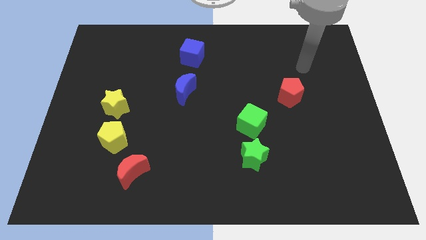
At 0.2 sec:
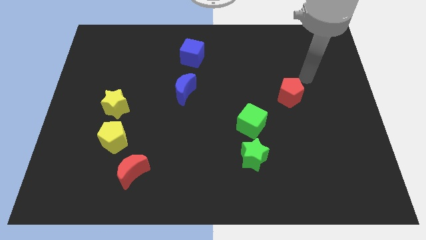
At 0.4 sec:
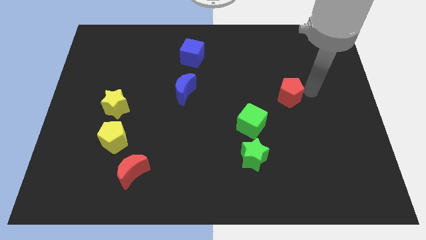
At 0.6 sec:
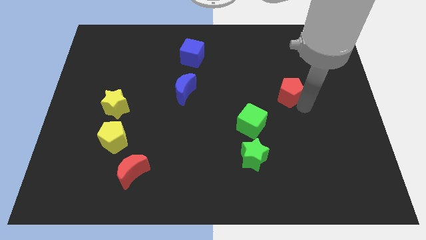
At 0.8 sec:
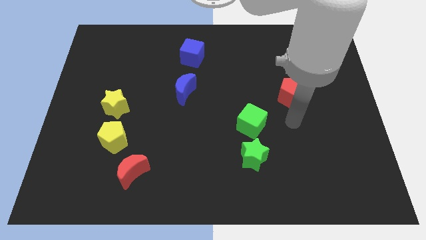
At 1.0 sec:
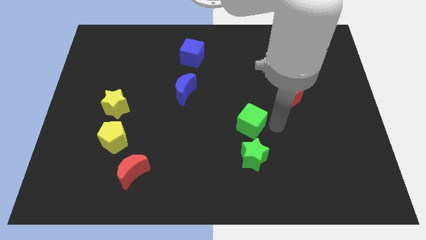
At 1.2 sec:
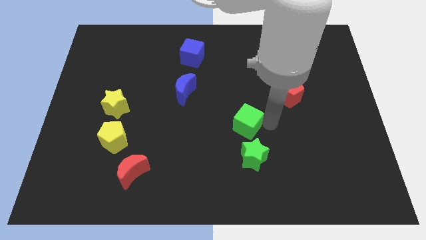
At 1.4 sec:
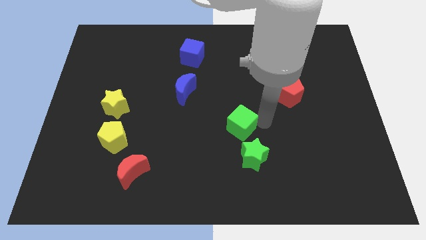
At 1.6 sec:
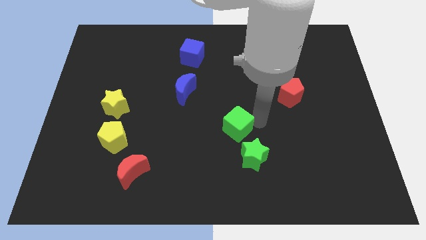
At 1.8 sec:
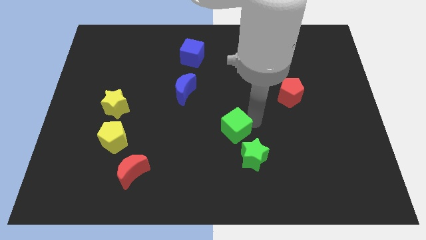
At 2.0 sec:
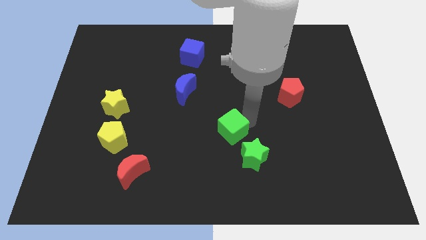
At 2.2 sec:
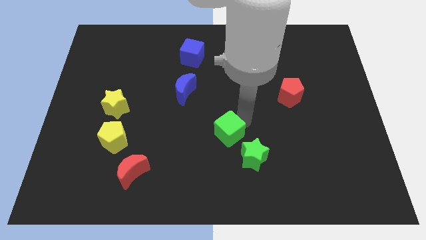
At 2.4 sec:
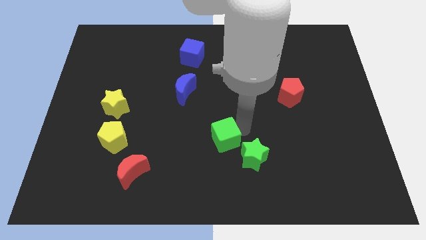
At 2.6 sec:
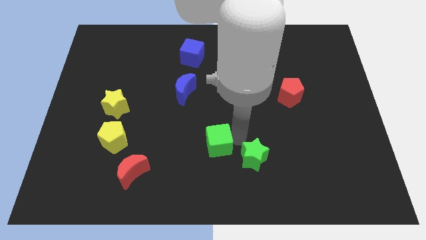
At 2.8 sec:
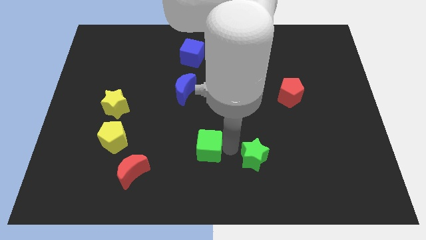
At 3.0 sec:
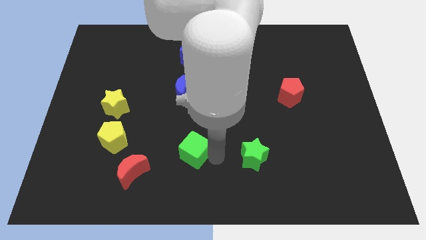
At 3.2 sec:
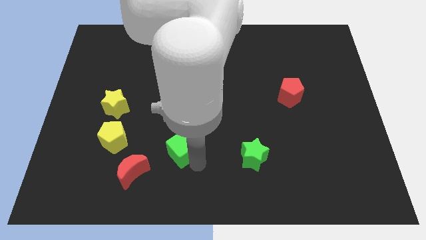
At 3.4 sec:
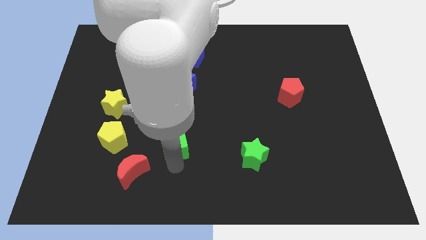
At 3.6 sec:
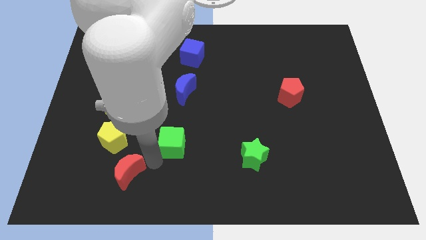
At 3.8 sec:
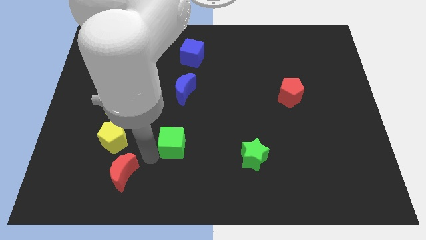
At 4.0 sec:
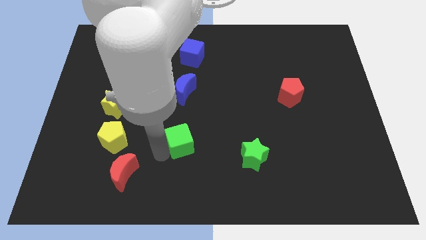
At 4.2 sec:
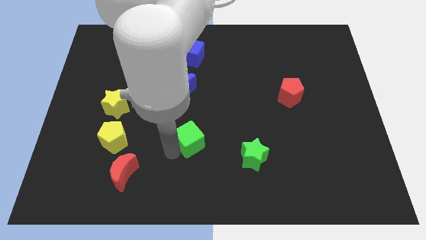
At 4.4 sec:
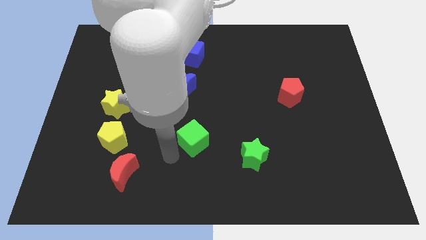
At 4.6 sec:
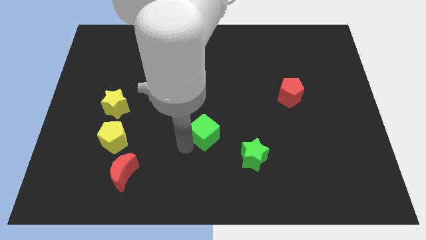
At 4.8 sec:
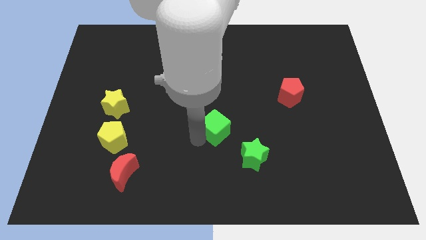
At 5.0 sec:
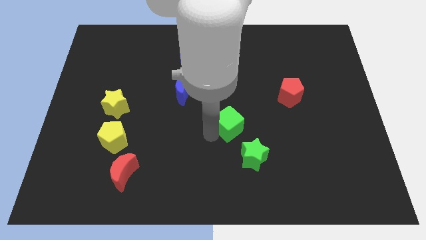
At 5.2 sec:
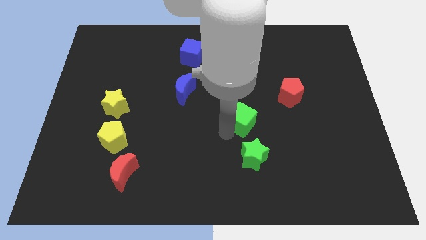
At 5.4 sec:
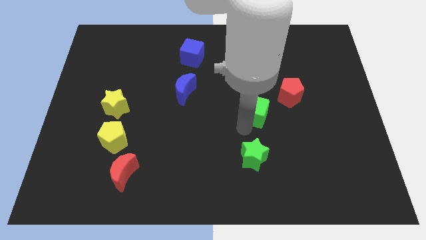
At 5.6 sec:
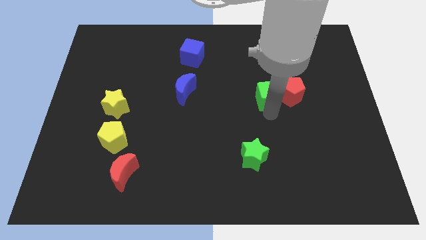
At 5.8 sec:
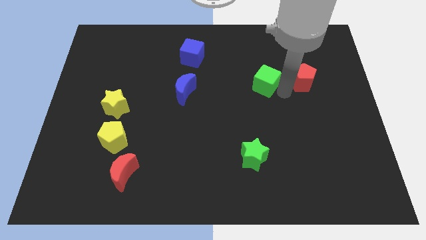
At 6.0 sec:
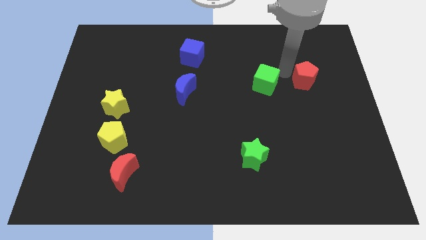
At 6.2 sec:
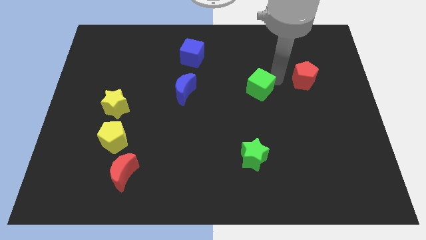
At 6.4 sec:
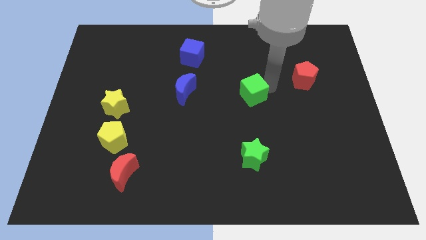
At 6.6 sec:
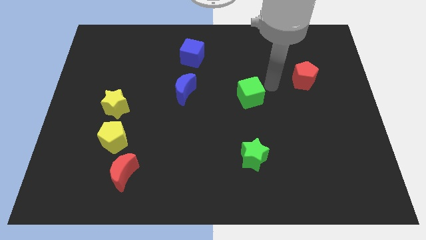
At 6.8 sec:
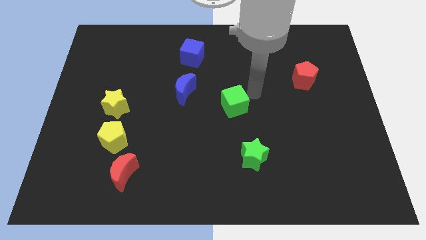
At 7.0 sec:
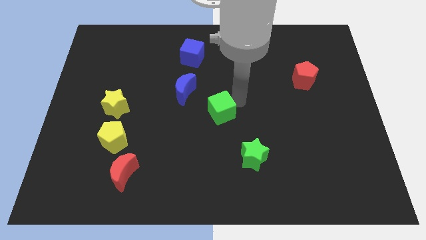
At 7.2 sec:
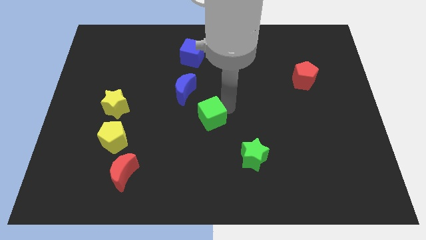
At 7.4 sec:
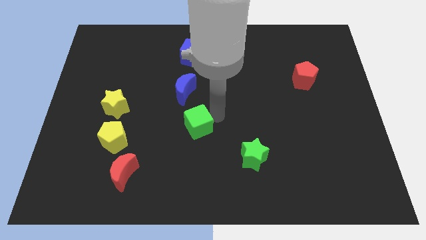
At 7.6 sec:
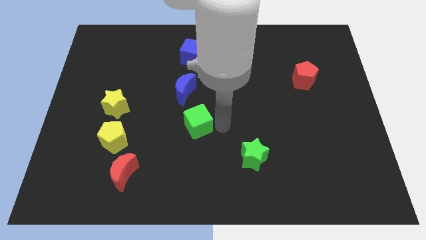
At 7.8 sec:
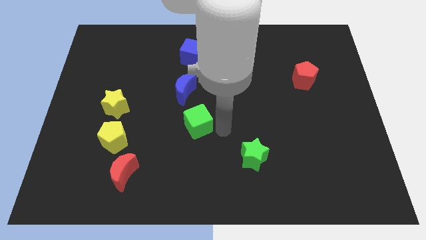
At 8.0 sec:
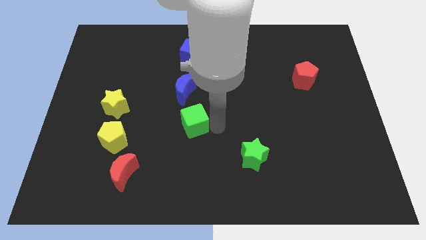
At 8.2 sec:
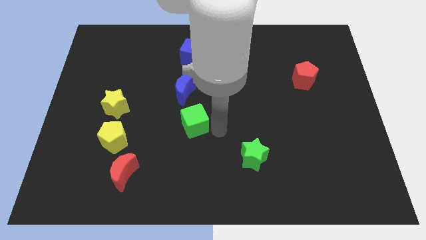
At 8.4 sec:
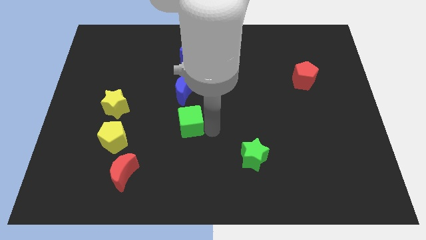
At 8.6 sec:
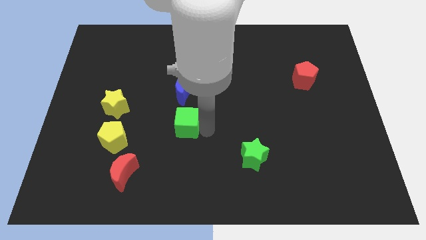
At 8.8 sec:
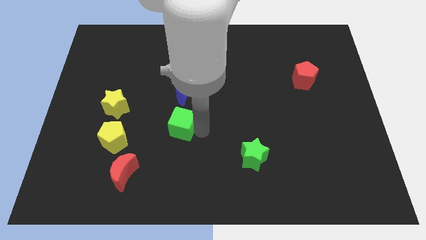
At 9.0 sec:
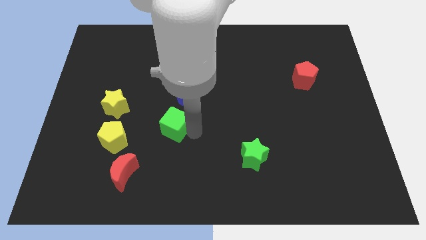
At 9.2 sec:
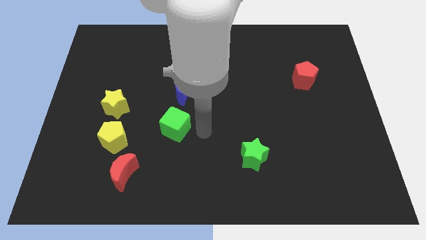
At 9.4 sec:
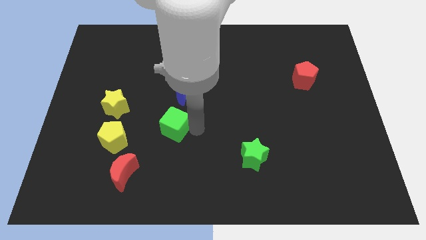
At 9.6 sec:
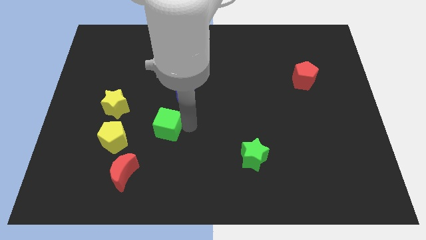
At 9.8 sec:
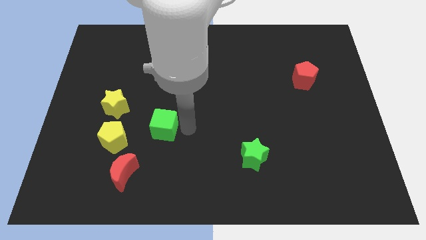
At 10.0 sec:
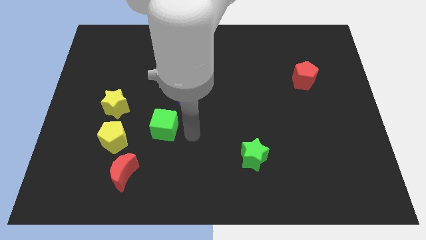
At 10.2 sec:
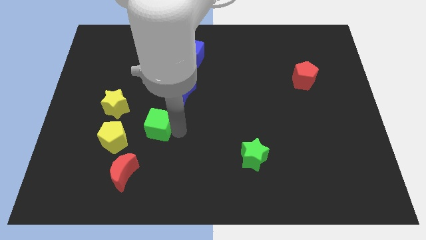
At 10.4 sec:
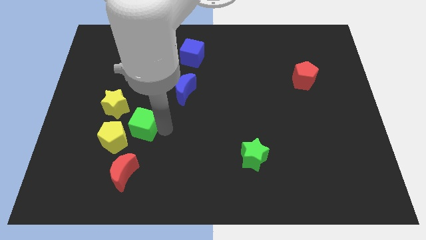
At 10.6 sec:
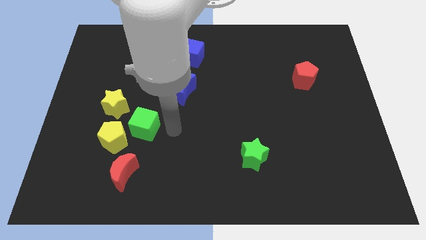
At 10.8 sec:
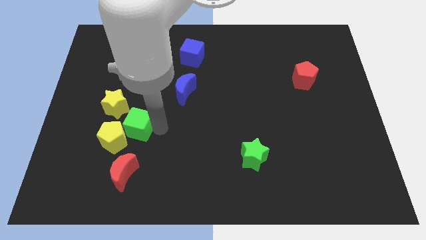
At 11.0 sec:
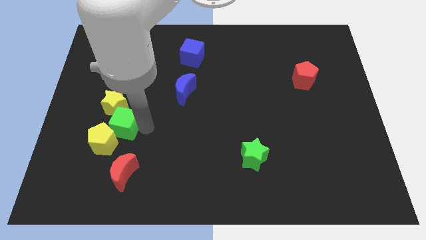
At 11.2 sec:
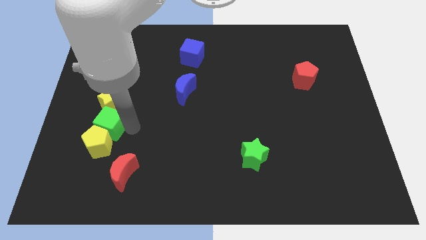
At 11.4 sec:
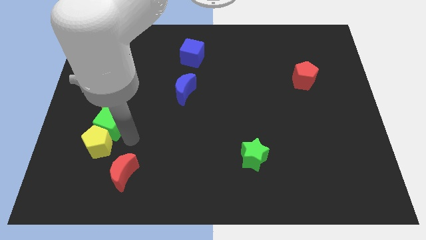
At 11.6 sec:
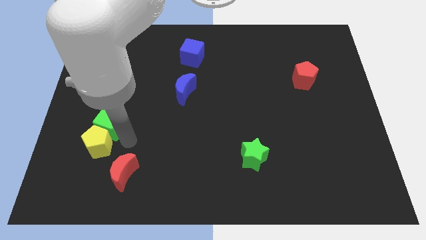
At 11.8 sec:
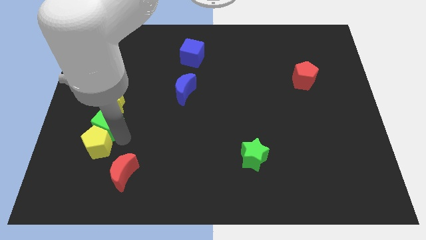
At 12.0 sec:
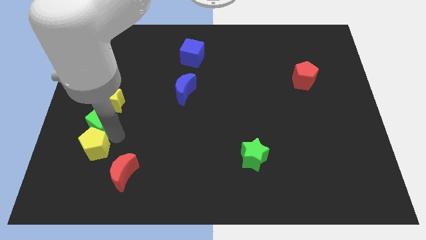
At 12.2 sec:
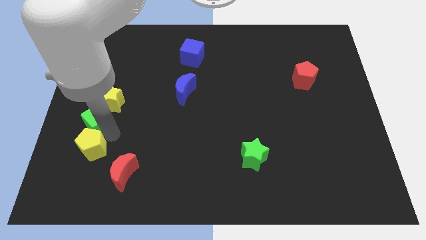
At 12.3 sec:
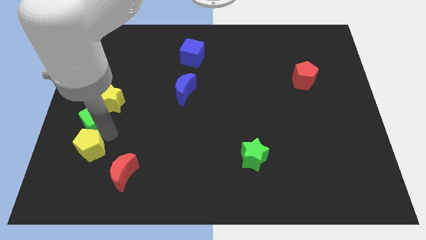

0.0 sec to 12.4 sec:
put the green cube to the left side of the board

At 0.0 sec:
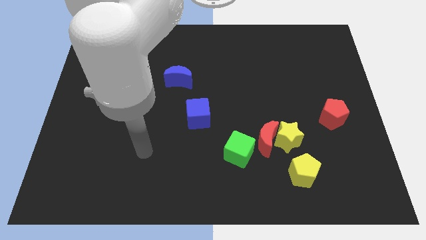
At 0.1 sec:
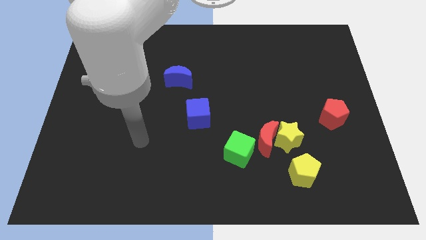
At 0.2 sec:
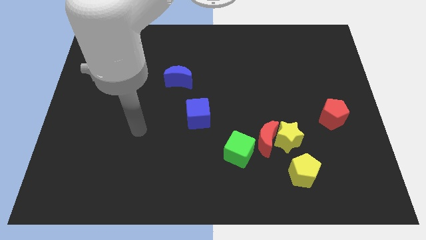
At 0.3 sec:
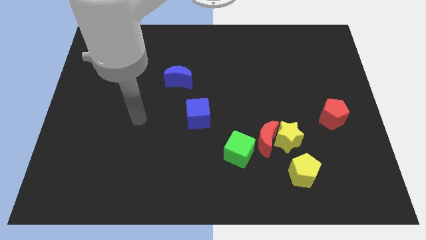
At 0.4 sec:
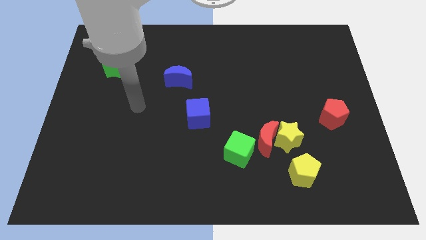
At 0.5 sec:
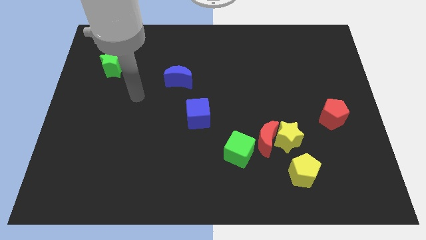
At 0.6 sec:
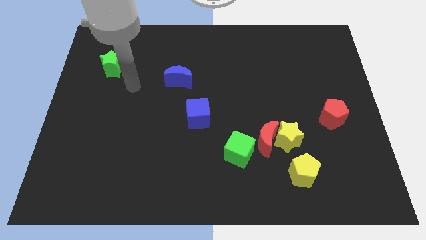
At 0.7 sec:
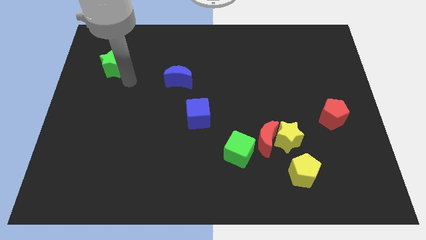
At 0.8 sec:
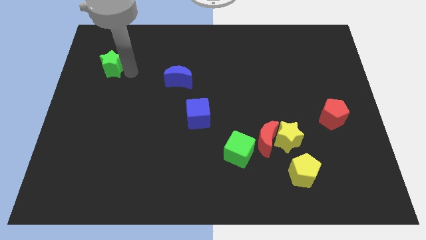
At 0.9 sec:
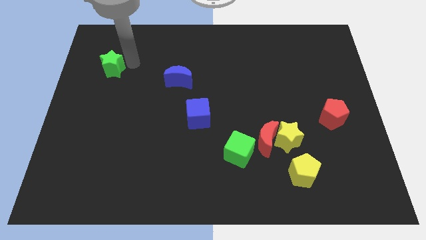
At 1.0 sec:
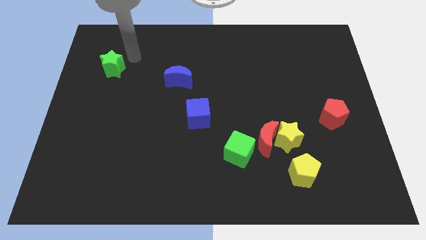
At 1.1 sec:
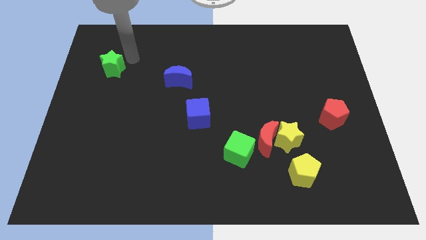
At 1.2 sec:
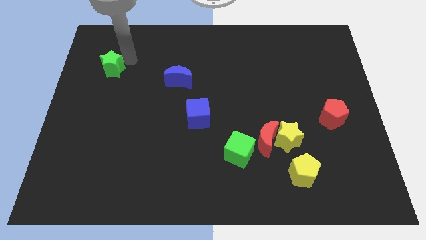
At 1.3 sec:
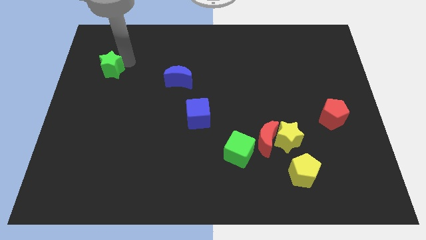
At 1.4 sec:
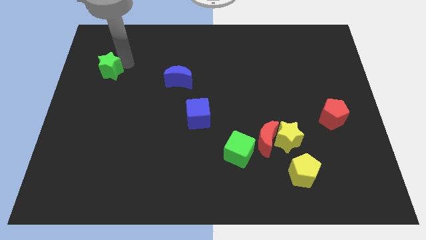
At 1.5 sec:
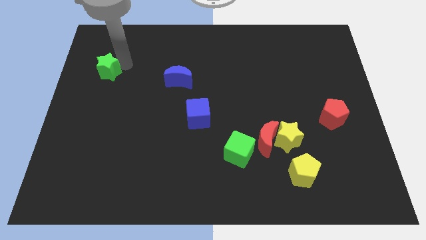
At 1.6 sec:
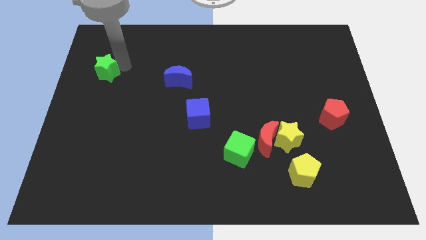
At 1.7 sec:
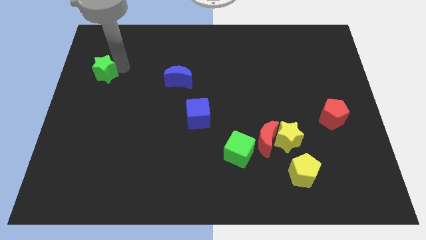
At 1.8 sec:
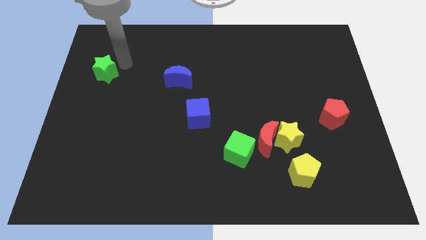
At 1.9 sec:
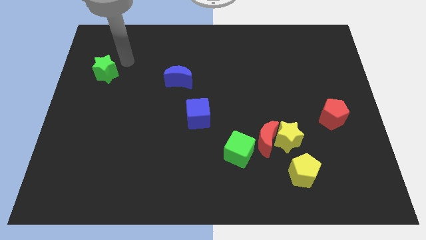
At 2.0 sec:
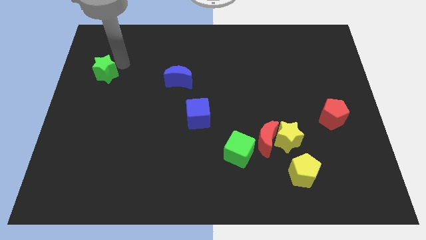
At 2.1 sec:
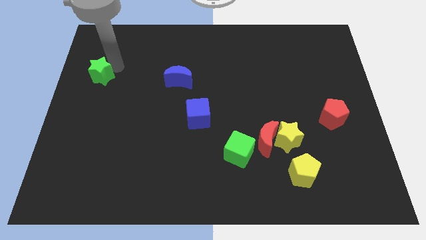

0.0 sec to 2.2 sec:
slide the green star to the left side
